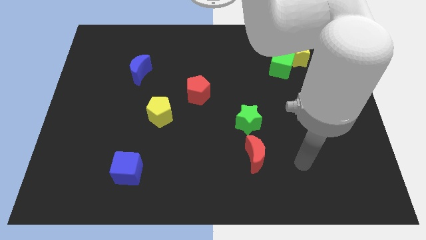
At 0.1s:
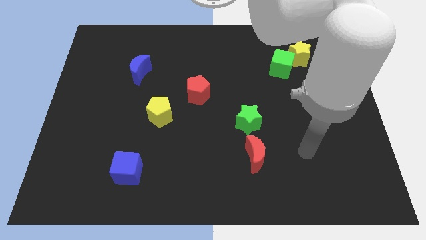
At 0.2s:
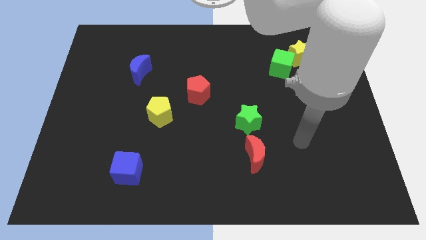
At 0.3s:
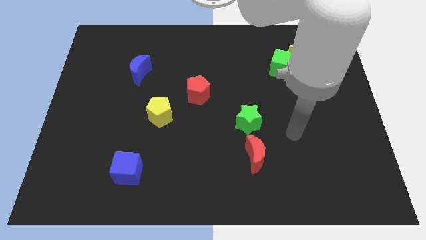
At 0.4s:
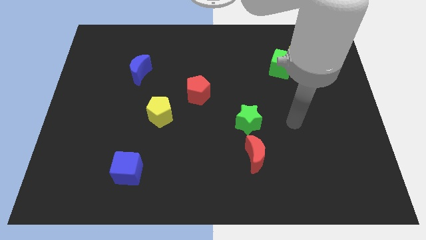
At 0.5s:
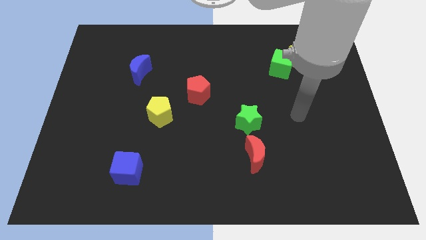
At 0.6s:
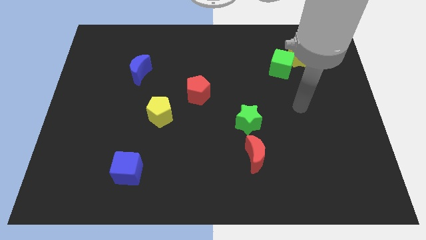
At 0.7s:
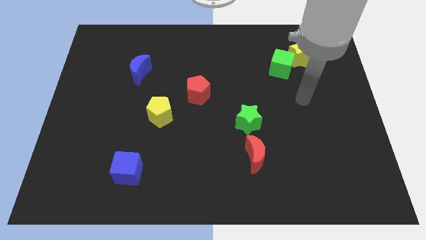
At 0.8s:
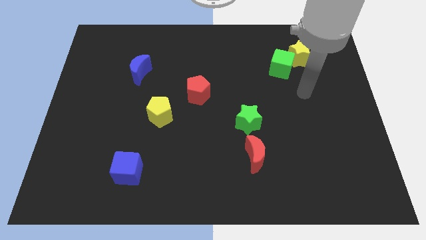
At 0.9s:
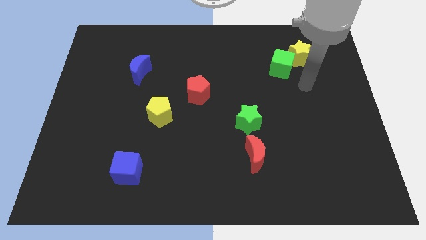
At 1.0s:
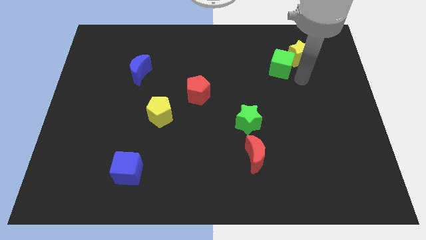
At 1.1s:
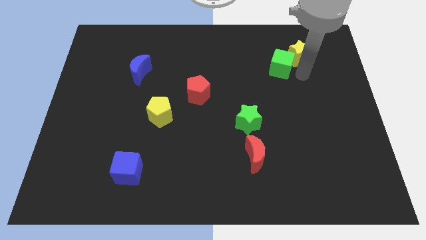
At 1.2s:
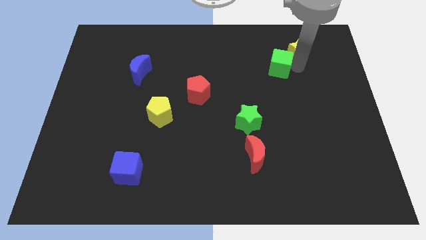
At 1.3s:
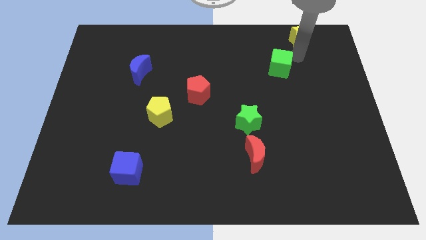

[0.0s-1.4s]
move the green cube away from the yellow star

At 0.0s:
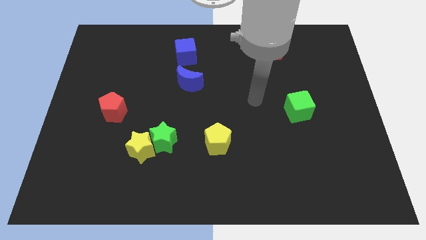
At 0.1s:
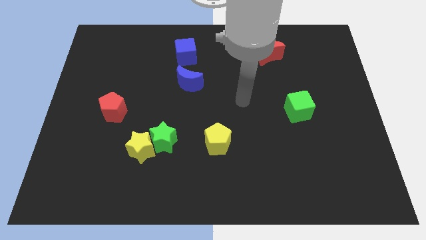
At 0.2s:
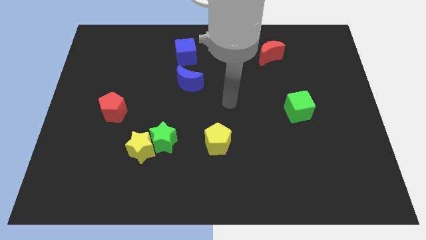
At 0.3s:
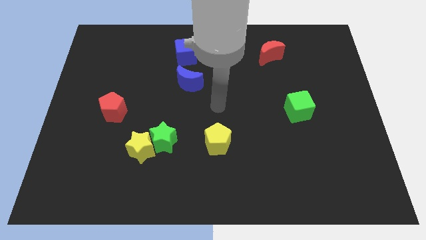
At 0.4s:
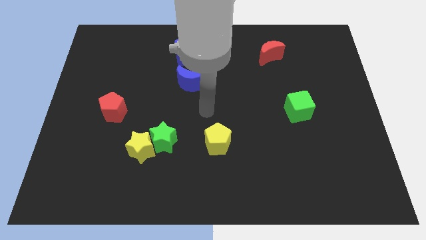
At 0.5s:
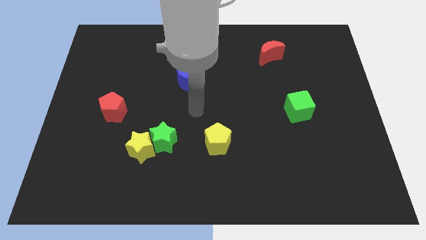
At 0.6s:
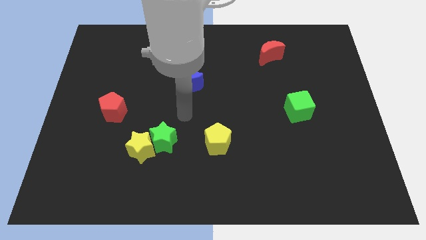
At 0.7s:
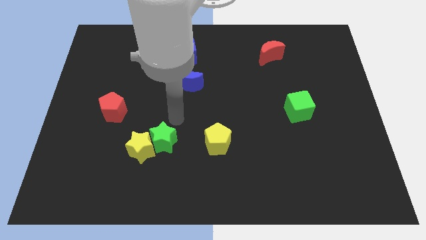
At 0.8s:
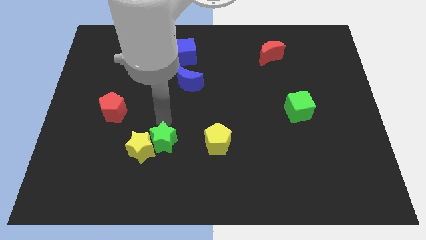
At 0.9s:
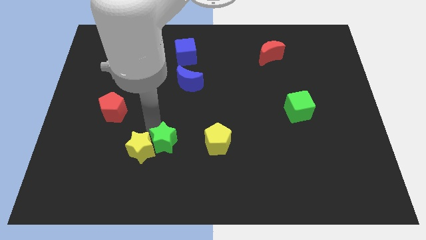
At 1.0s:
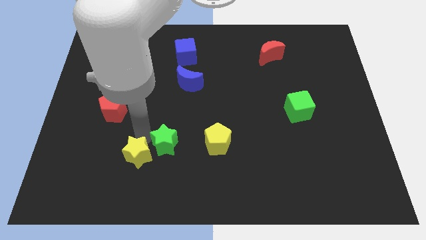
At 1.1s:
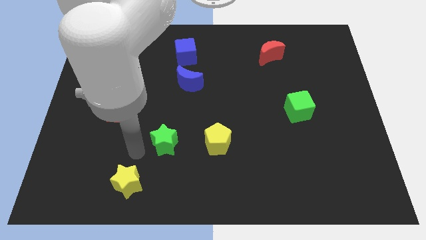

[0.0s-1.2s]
separate the green star from the yellow star

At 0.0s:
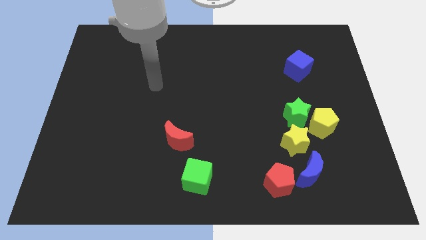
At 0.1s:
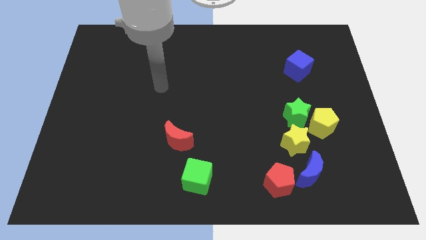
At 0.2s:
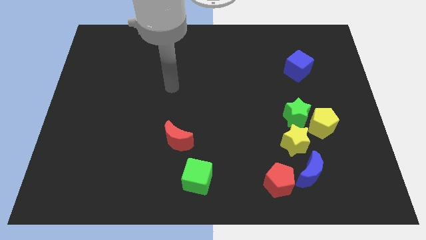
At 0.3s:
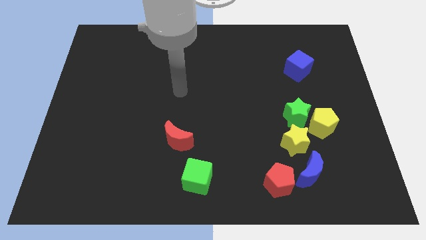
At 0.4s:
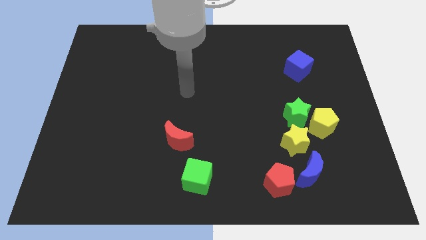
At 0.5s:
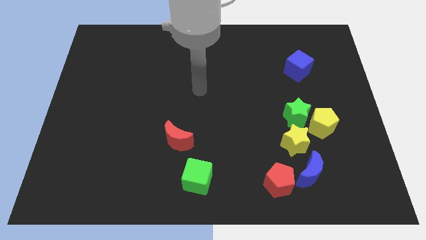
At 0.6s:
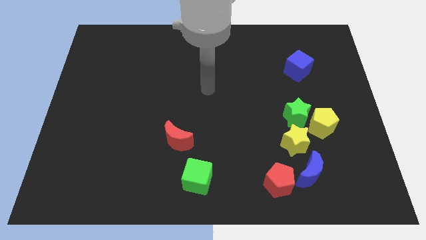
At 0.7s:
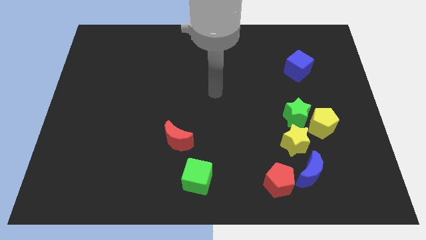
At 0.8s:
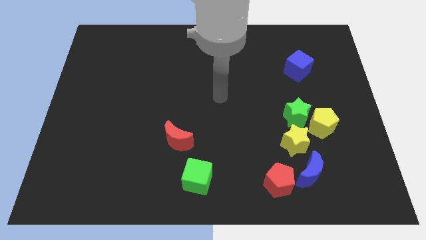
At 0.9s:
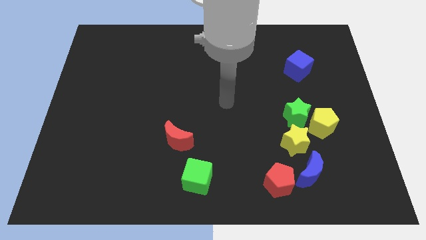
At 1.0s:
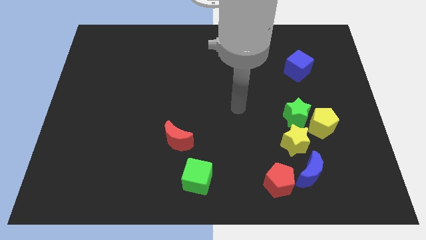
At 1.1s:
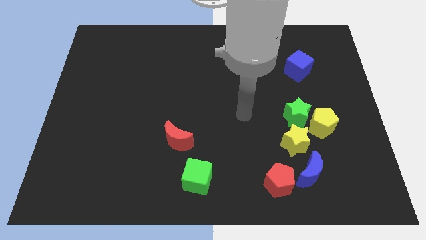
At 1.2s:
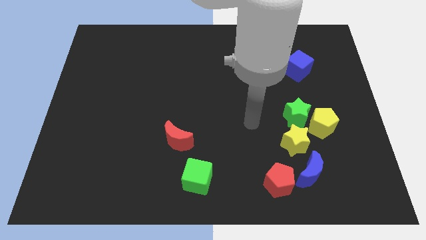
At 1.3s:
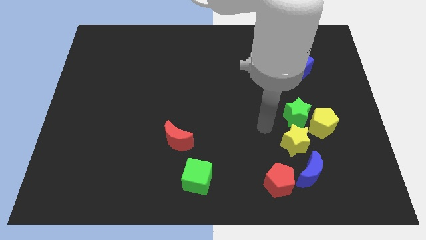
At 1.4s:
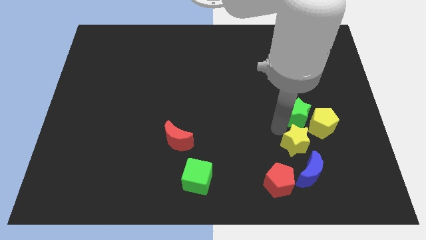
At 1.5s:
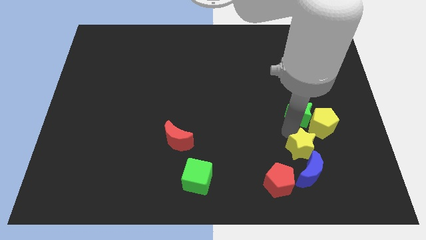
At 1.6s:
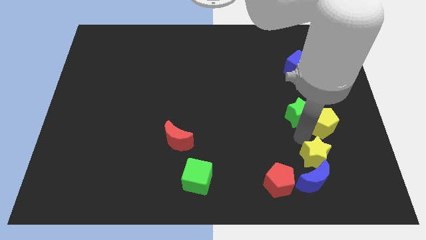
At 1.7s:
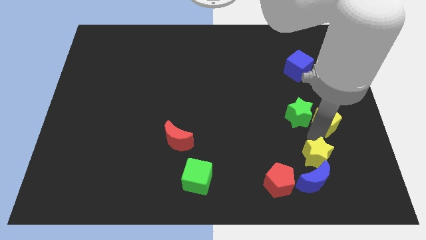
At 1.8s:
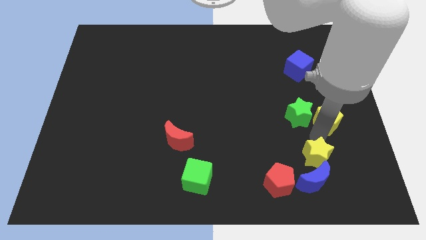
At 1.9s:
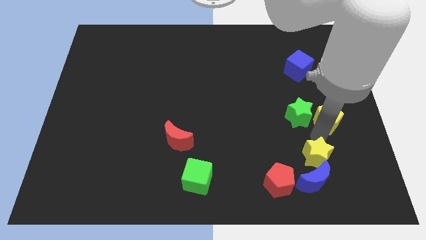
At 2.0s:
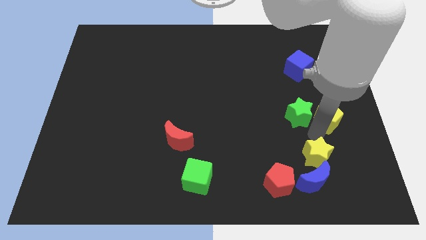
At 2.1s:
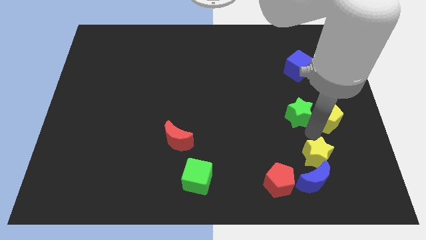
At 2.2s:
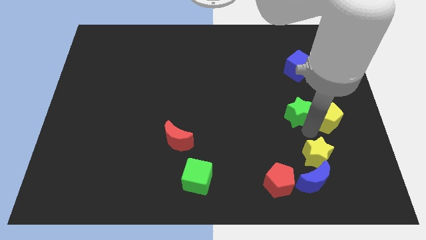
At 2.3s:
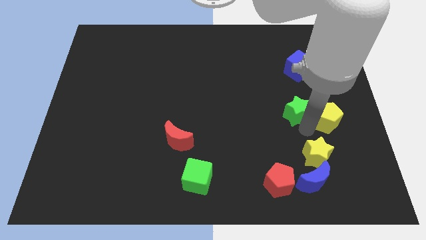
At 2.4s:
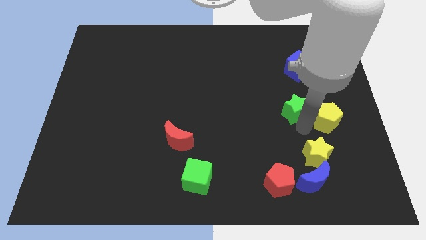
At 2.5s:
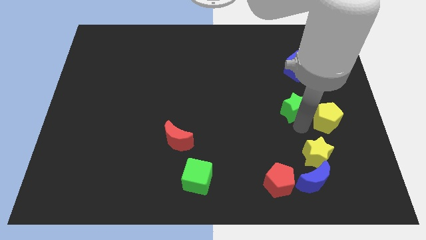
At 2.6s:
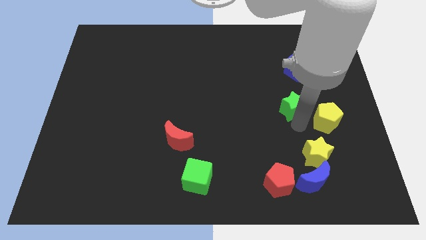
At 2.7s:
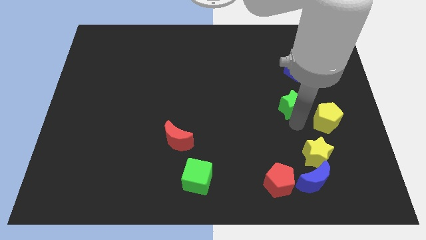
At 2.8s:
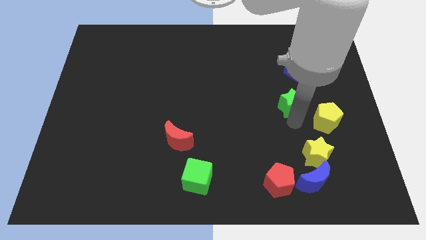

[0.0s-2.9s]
move the green star away from the yellow pentagon and yellow star

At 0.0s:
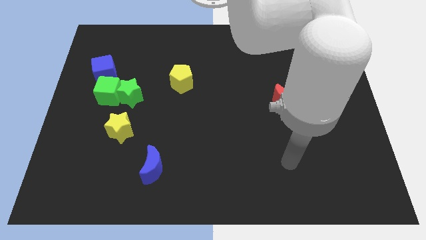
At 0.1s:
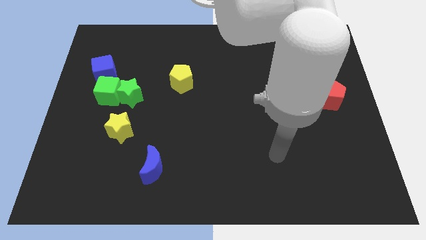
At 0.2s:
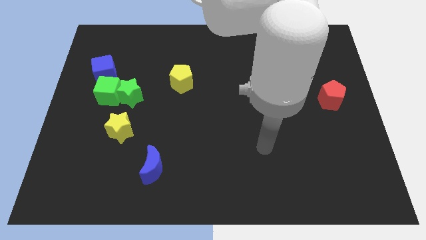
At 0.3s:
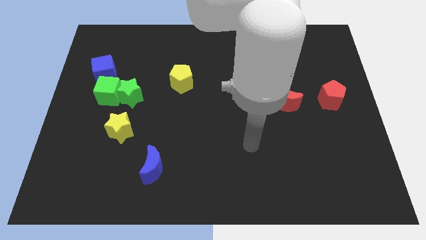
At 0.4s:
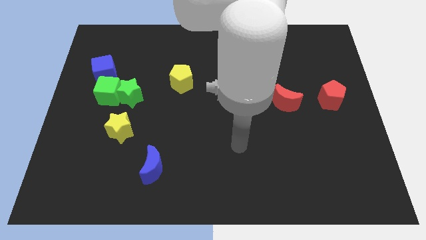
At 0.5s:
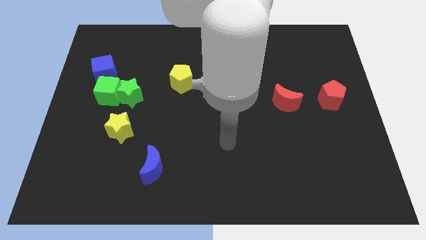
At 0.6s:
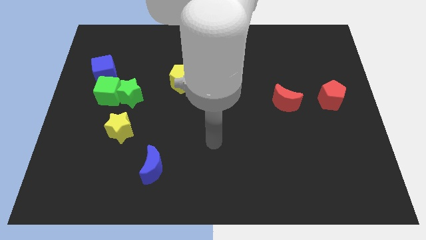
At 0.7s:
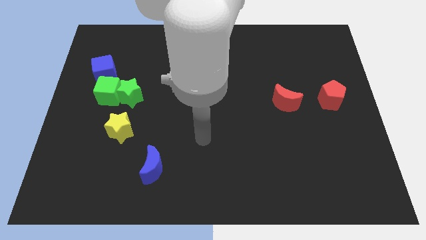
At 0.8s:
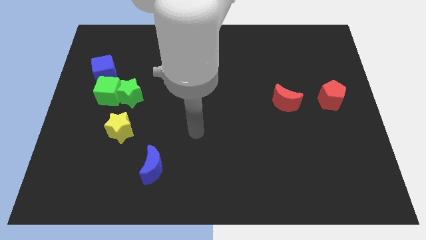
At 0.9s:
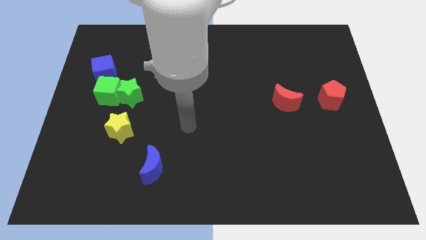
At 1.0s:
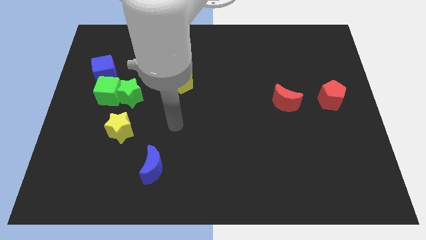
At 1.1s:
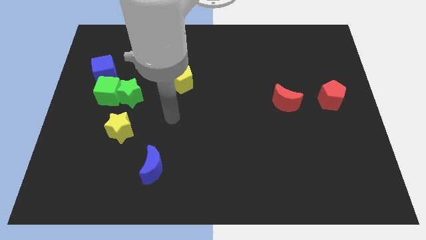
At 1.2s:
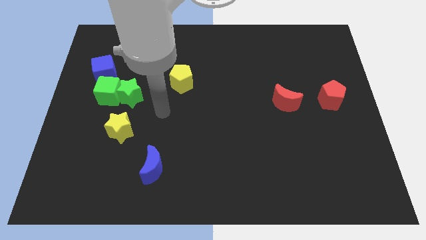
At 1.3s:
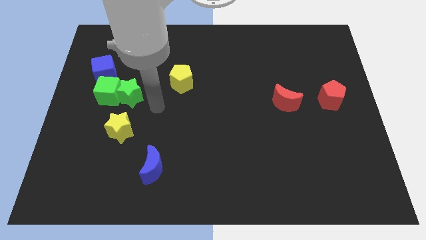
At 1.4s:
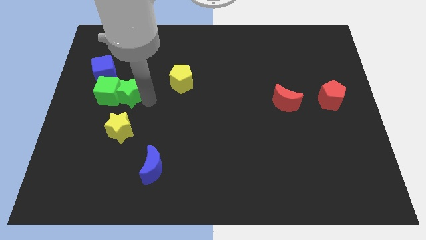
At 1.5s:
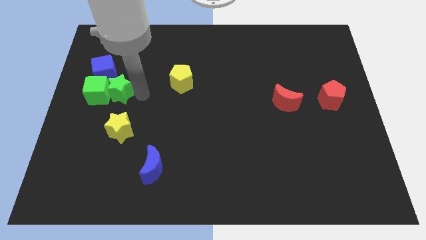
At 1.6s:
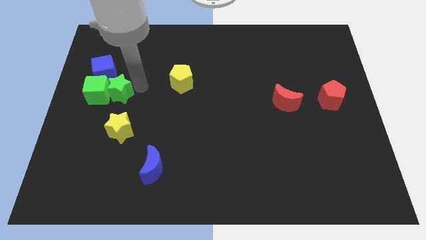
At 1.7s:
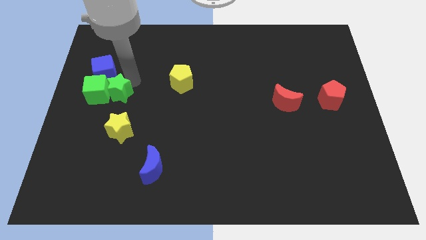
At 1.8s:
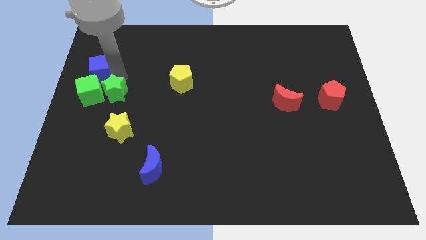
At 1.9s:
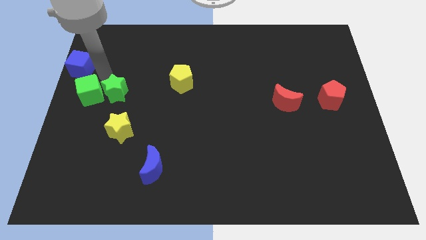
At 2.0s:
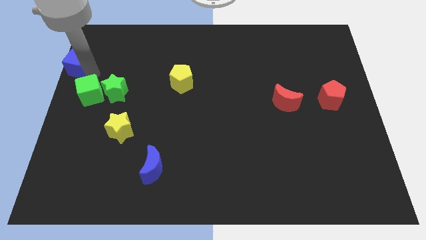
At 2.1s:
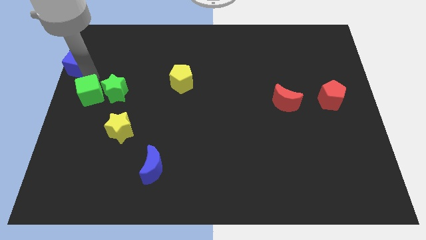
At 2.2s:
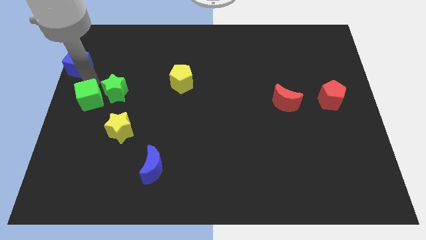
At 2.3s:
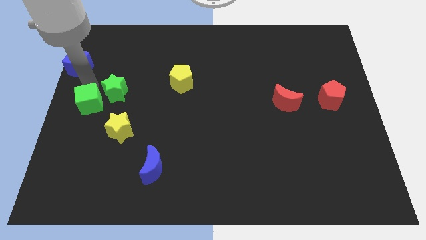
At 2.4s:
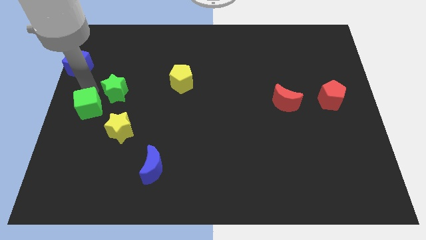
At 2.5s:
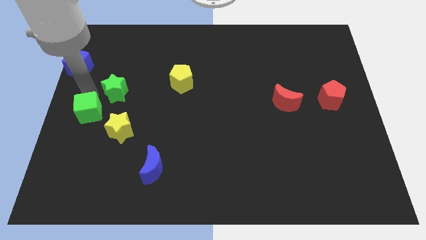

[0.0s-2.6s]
move the green cube away from the green star and blue cube

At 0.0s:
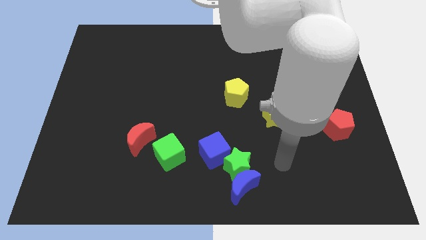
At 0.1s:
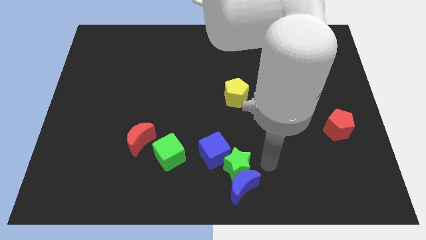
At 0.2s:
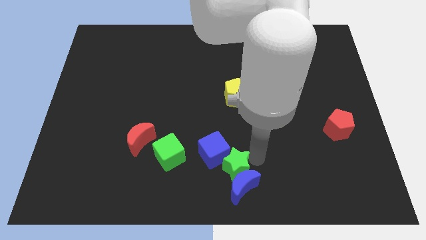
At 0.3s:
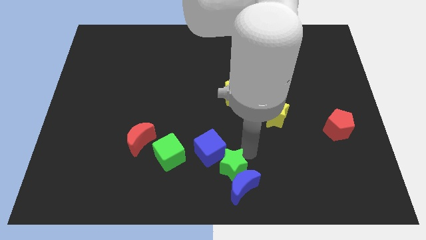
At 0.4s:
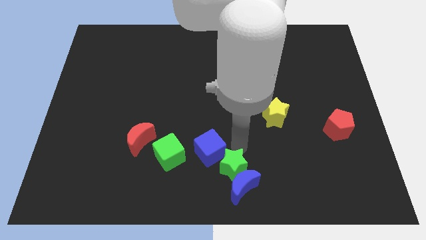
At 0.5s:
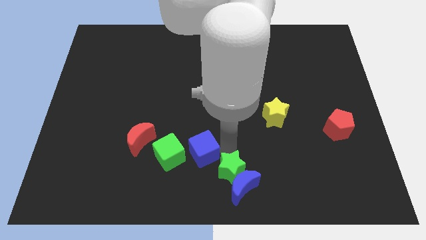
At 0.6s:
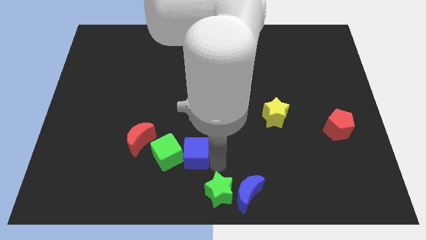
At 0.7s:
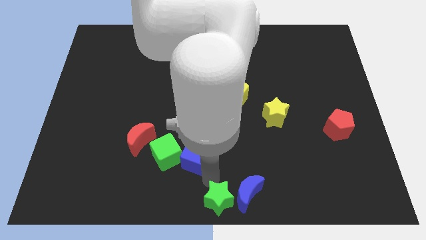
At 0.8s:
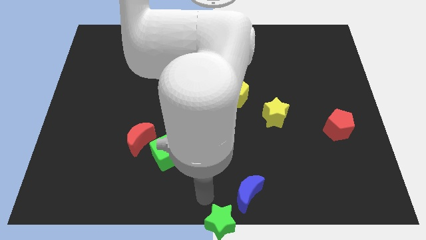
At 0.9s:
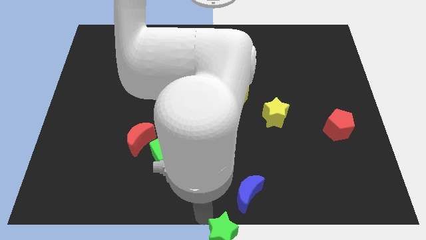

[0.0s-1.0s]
move the green star away from the blue moon and blue cube

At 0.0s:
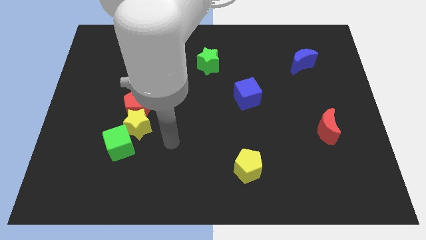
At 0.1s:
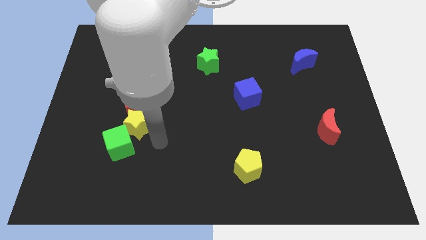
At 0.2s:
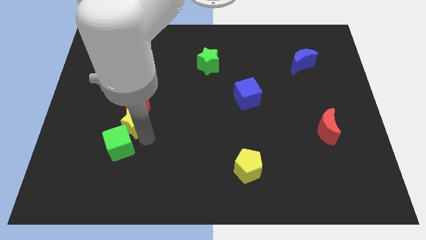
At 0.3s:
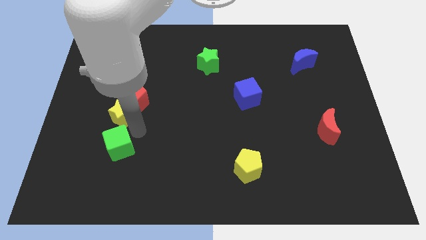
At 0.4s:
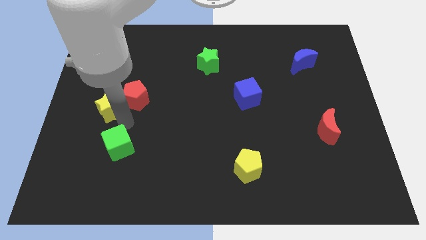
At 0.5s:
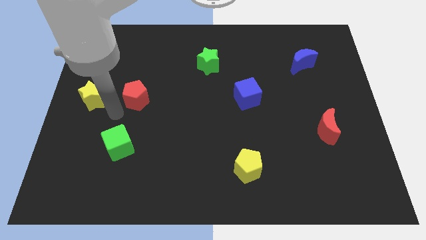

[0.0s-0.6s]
pull the red pentagon apart from the yellow star
